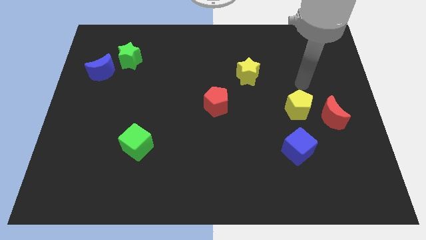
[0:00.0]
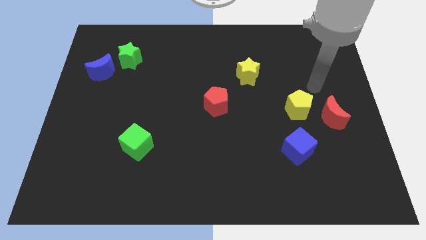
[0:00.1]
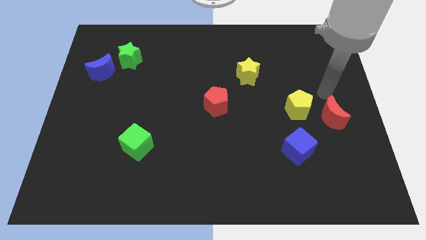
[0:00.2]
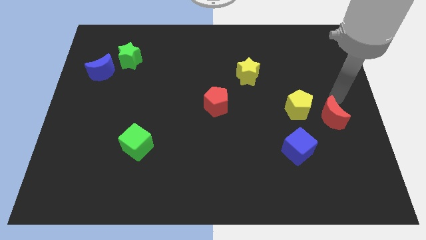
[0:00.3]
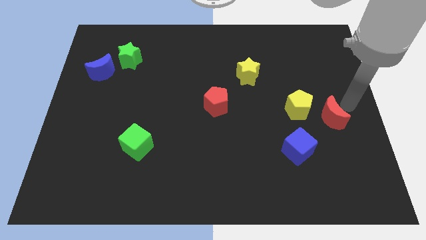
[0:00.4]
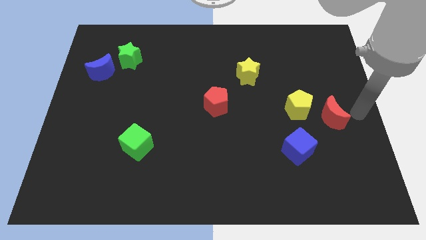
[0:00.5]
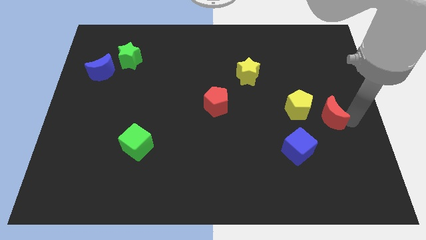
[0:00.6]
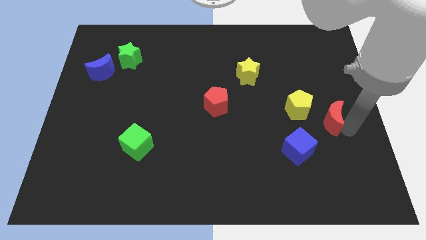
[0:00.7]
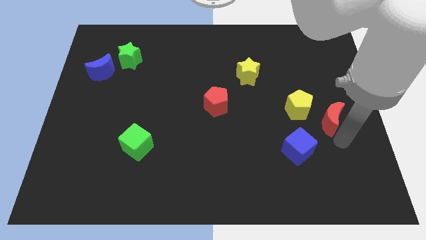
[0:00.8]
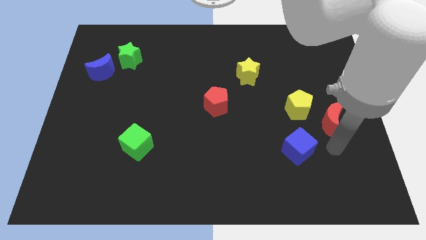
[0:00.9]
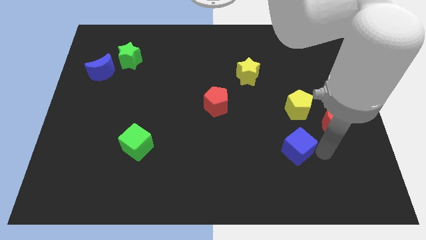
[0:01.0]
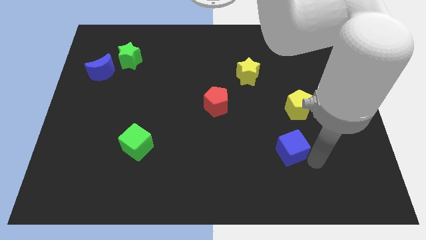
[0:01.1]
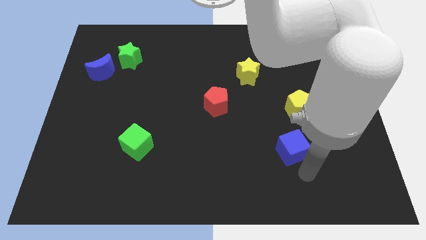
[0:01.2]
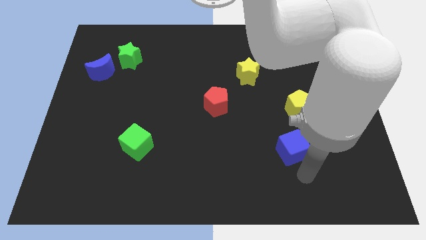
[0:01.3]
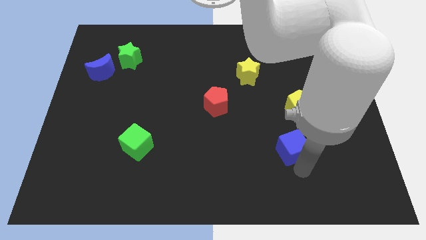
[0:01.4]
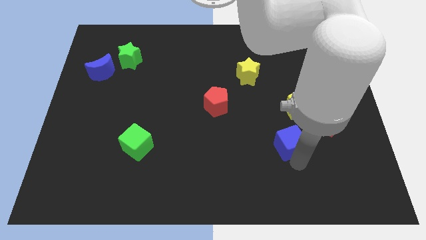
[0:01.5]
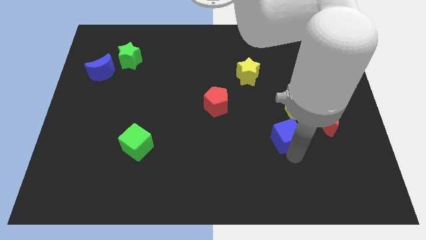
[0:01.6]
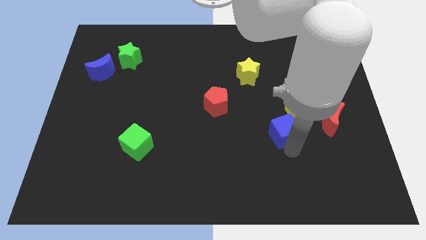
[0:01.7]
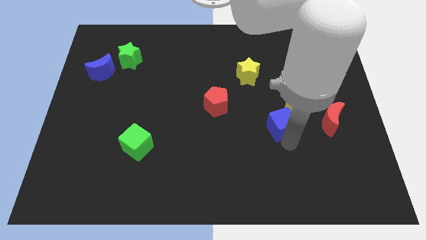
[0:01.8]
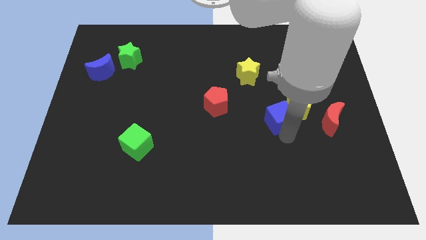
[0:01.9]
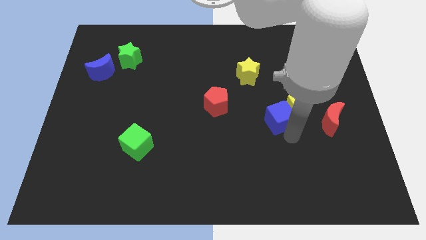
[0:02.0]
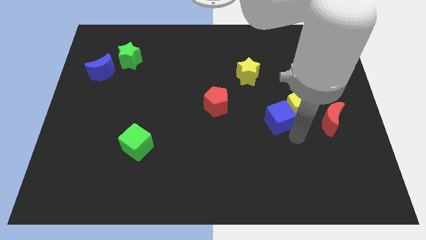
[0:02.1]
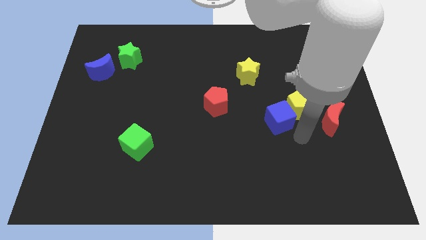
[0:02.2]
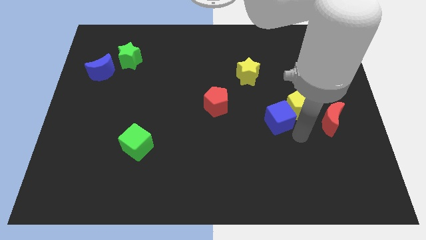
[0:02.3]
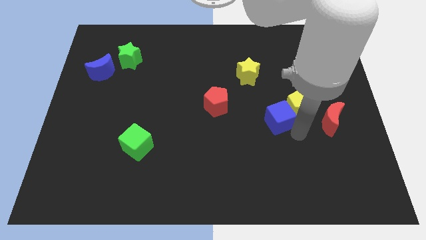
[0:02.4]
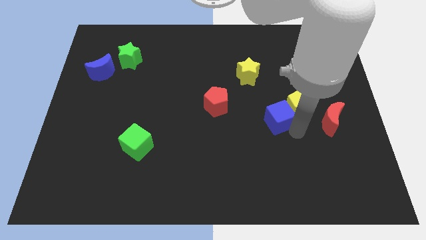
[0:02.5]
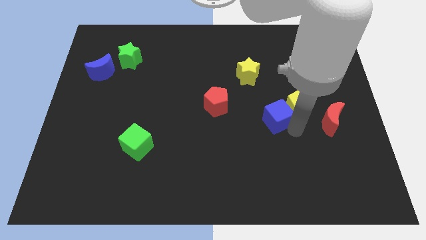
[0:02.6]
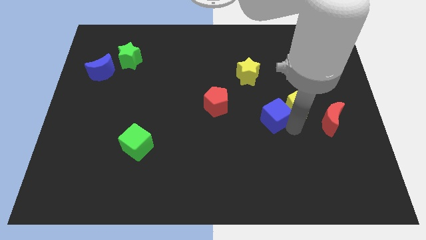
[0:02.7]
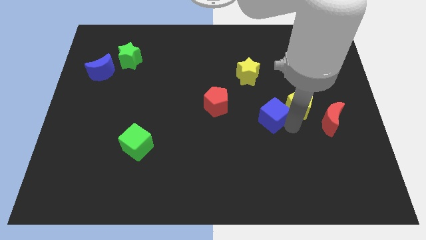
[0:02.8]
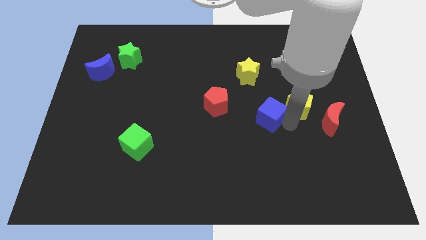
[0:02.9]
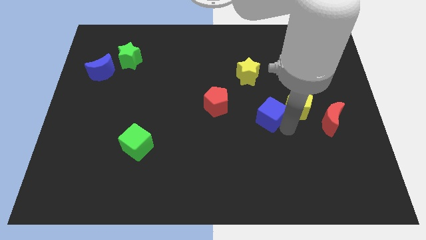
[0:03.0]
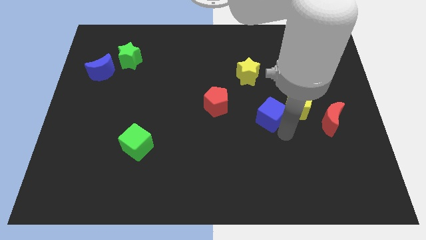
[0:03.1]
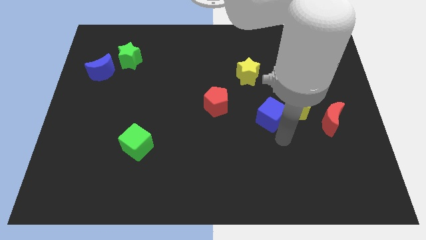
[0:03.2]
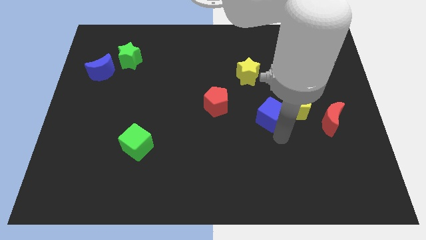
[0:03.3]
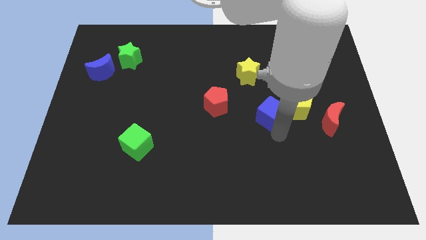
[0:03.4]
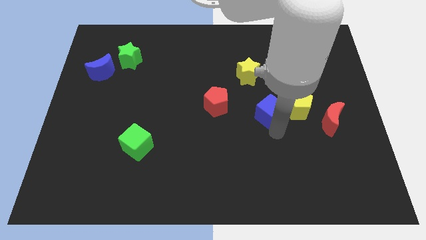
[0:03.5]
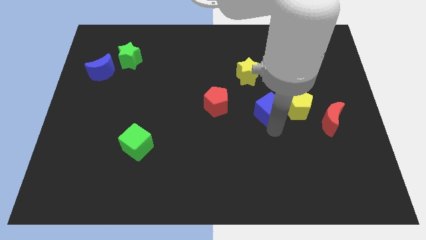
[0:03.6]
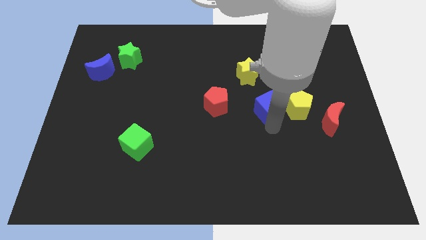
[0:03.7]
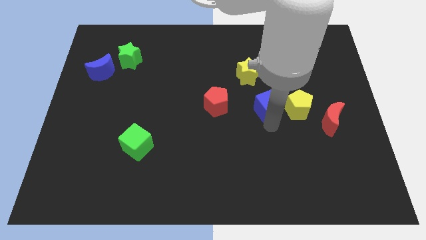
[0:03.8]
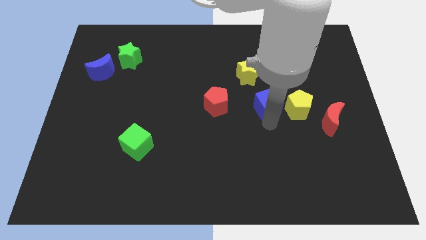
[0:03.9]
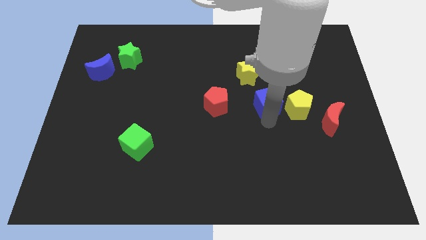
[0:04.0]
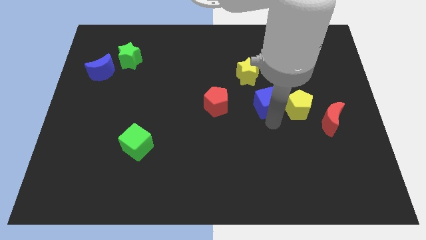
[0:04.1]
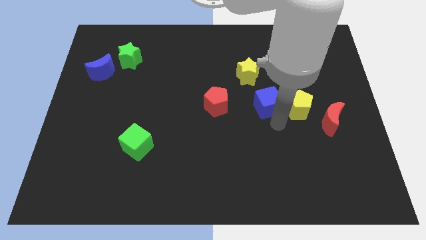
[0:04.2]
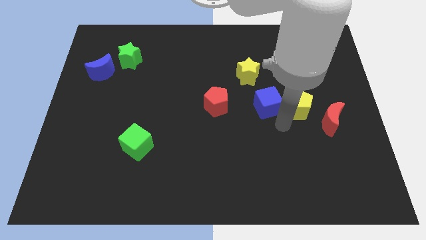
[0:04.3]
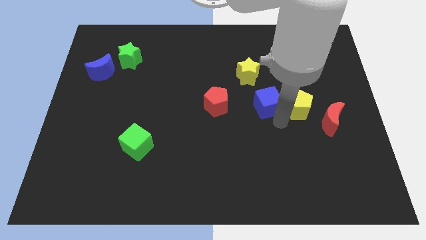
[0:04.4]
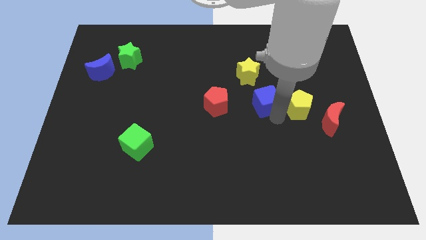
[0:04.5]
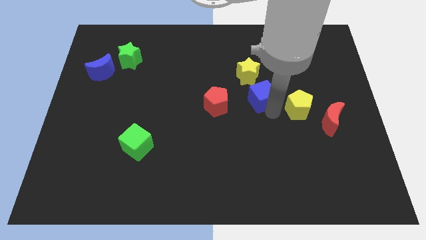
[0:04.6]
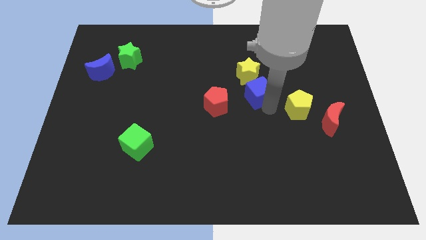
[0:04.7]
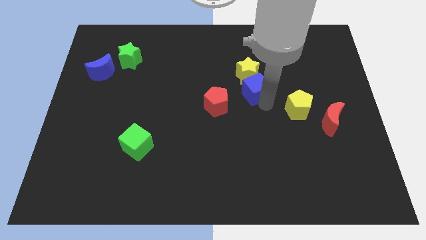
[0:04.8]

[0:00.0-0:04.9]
slide the blue cube close to the yellow star

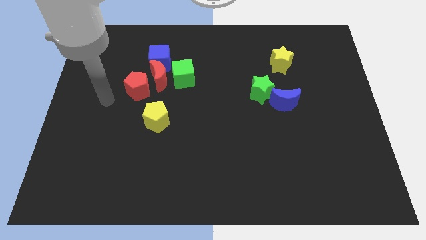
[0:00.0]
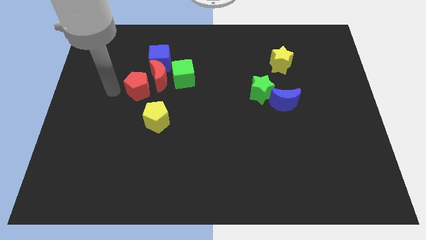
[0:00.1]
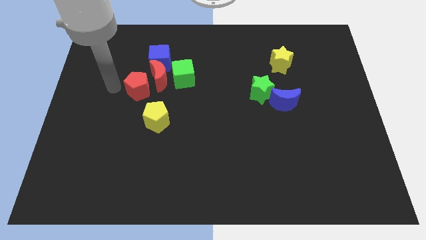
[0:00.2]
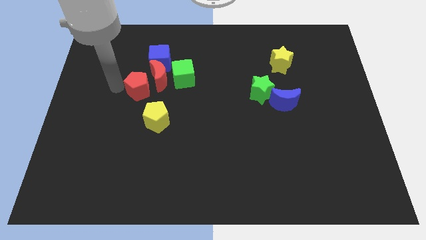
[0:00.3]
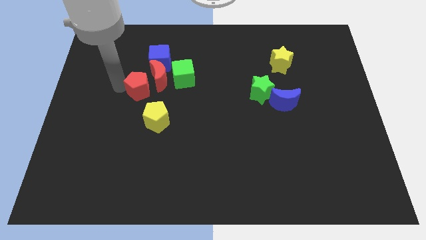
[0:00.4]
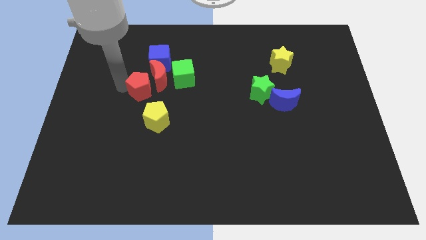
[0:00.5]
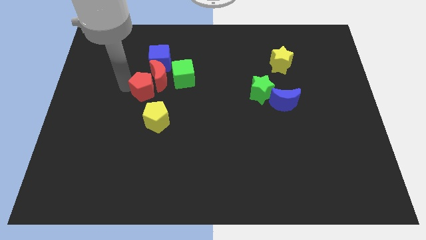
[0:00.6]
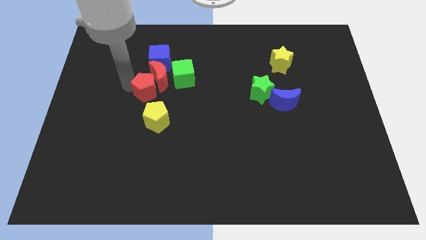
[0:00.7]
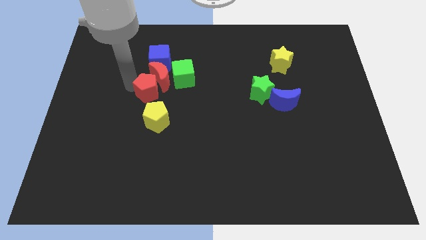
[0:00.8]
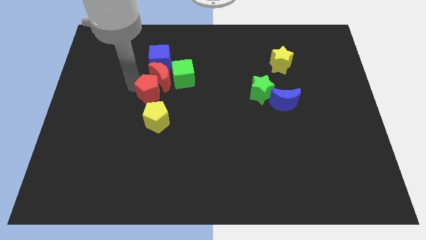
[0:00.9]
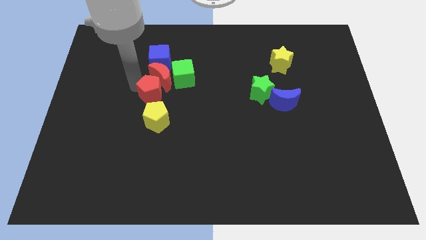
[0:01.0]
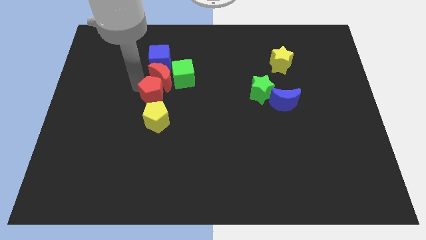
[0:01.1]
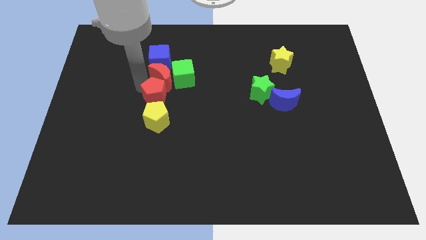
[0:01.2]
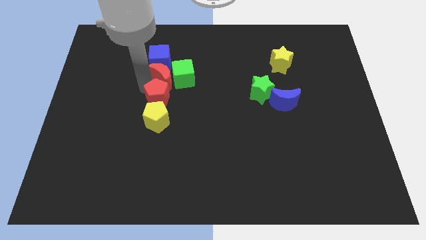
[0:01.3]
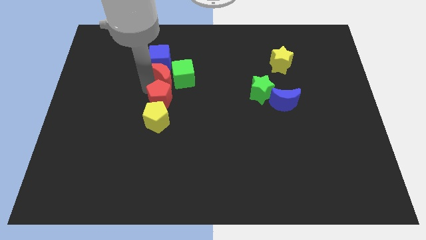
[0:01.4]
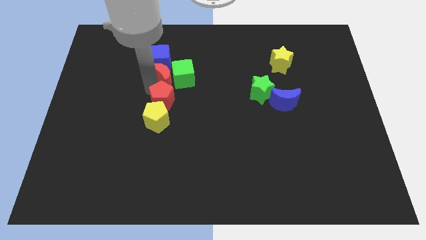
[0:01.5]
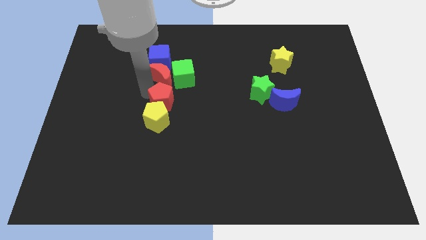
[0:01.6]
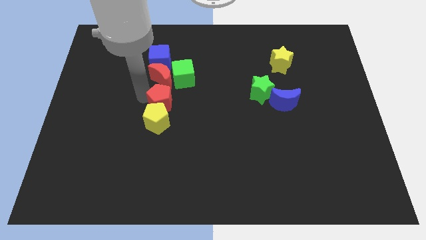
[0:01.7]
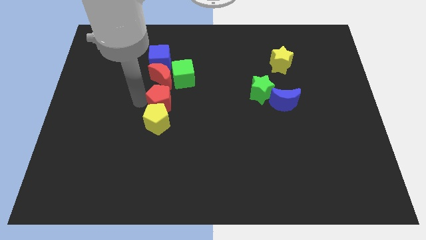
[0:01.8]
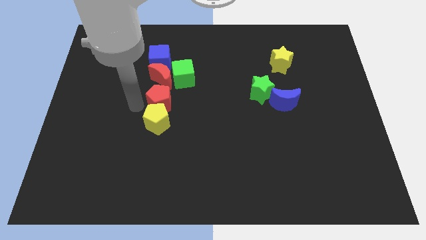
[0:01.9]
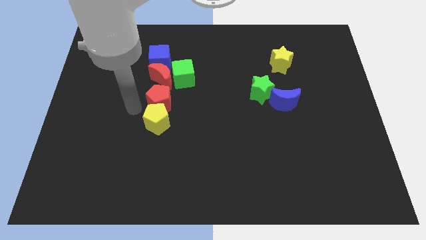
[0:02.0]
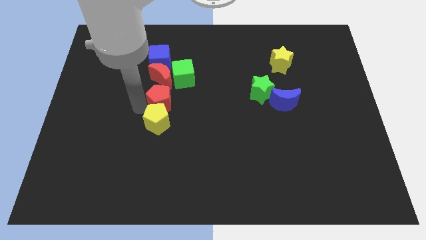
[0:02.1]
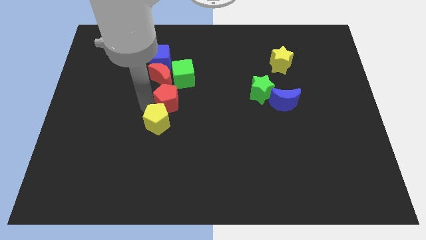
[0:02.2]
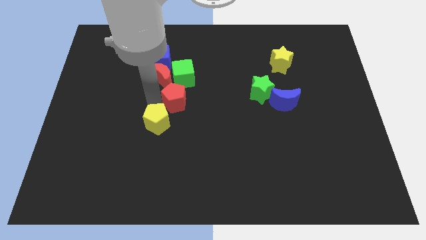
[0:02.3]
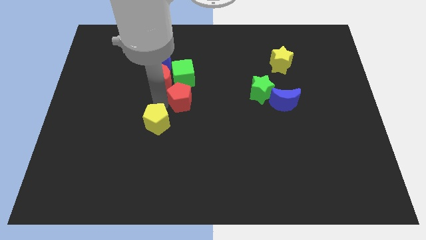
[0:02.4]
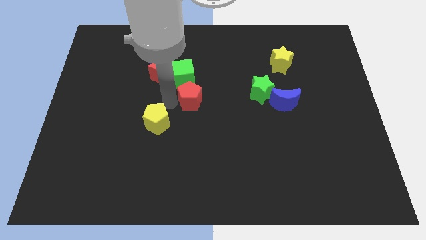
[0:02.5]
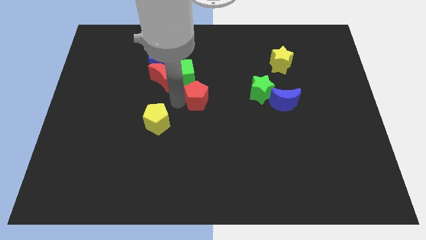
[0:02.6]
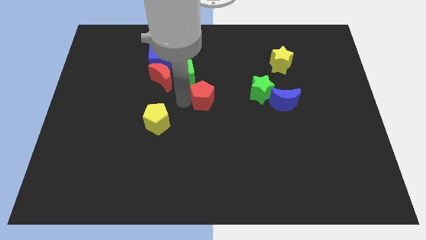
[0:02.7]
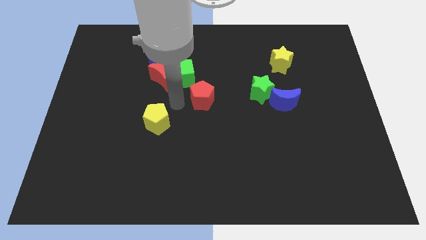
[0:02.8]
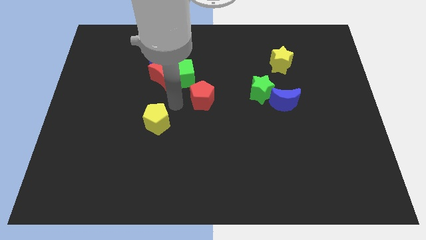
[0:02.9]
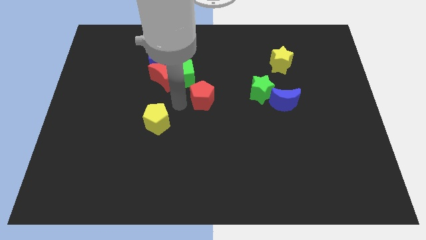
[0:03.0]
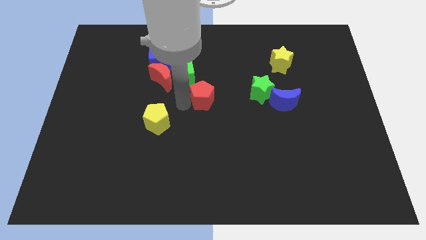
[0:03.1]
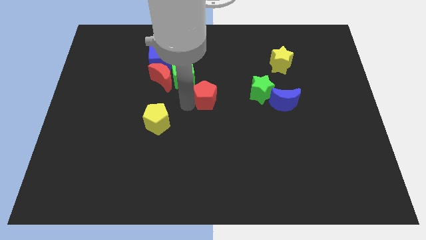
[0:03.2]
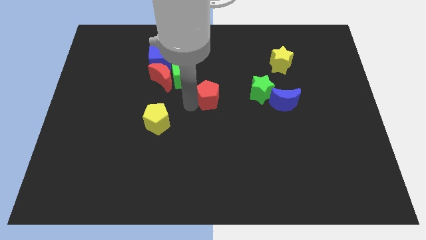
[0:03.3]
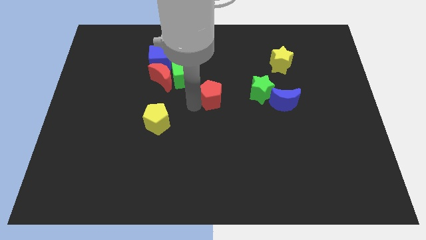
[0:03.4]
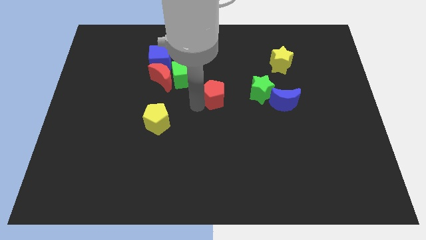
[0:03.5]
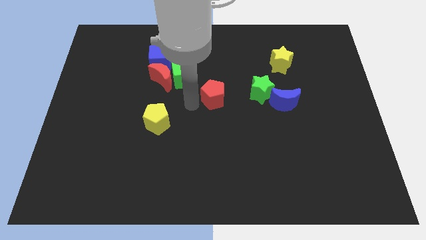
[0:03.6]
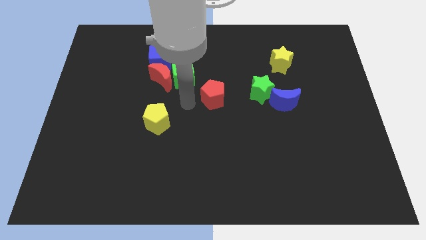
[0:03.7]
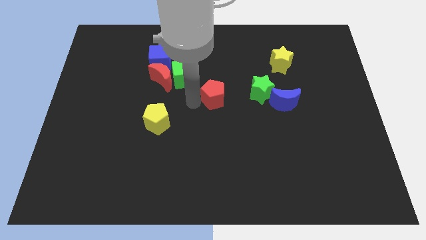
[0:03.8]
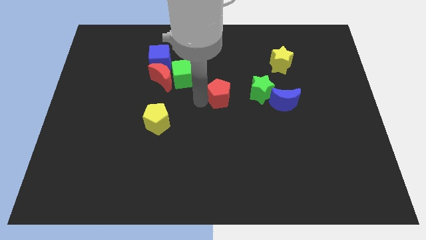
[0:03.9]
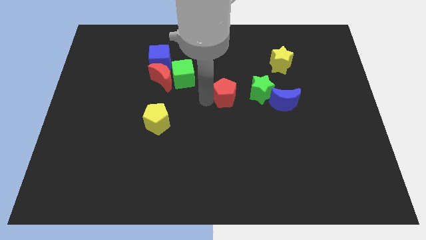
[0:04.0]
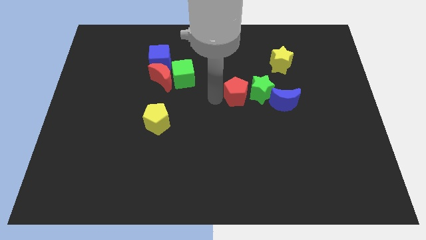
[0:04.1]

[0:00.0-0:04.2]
slide the red pentagon close to the green star
